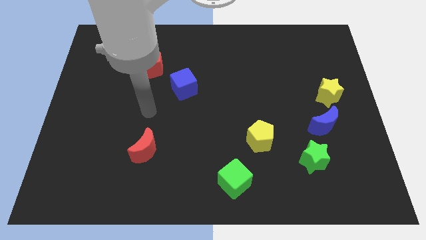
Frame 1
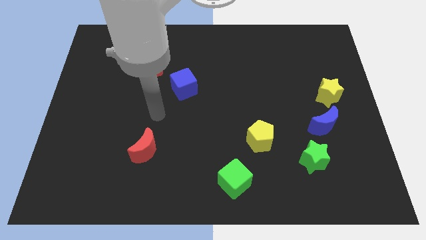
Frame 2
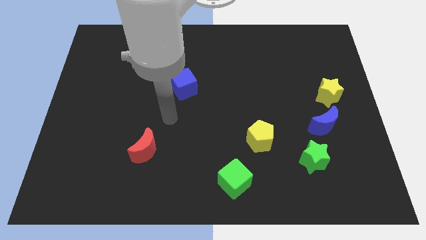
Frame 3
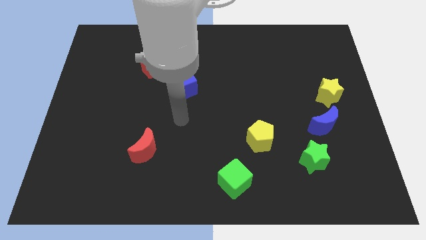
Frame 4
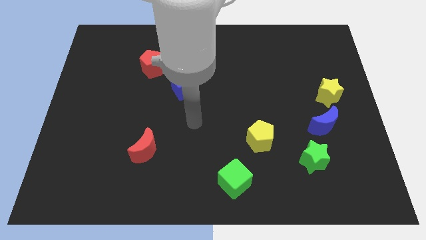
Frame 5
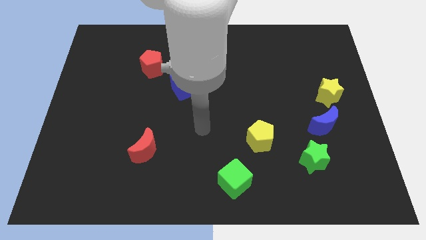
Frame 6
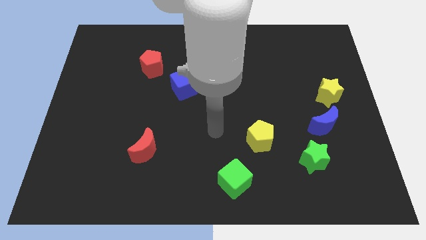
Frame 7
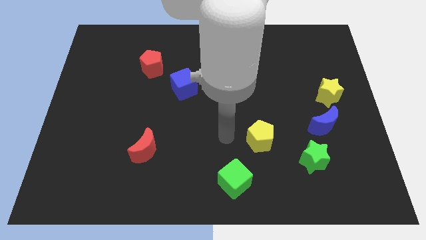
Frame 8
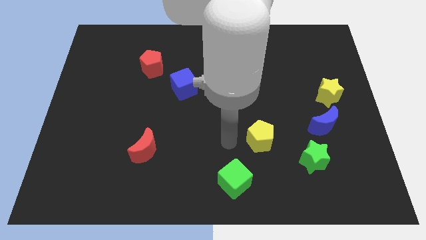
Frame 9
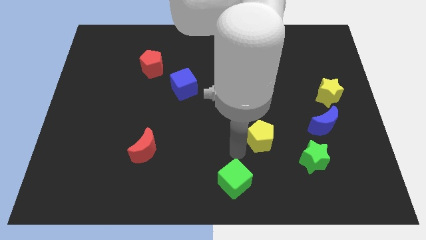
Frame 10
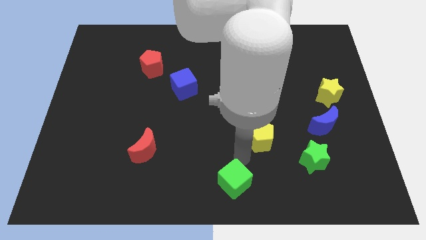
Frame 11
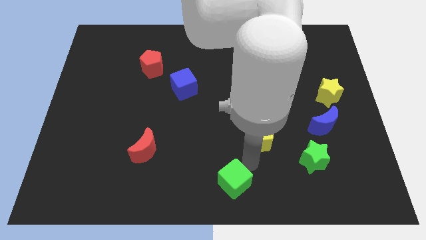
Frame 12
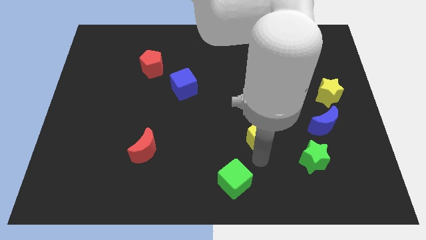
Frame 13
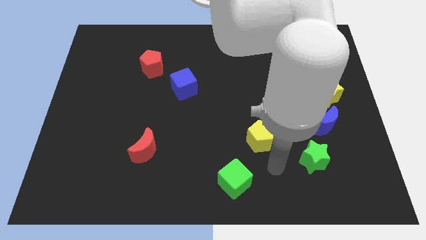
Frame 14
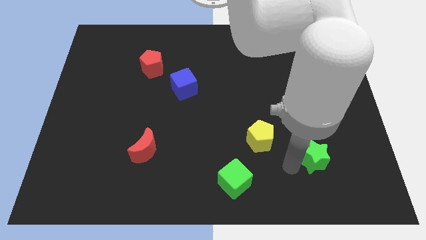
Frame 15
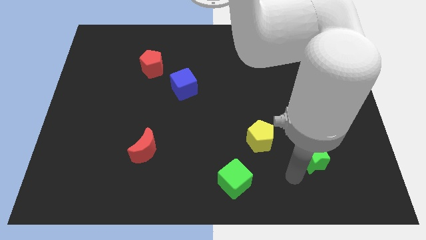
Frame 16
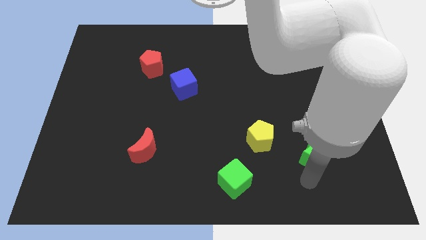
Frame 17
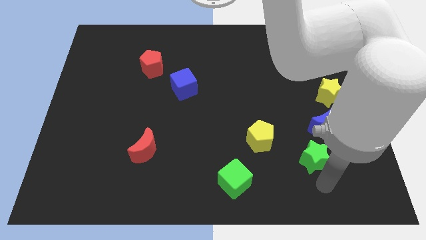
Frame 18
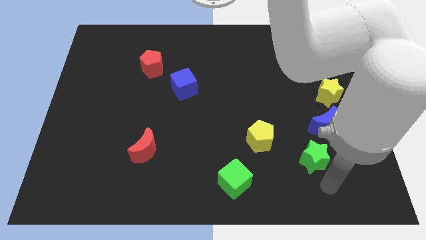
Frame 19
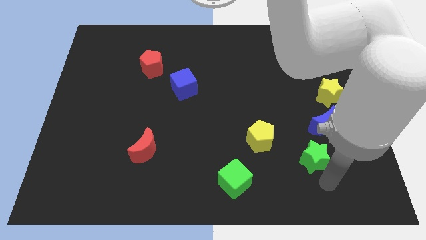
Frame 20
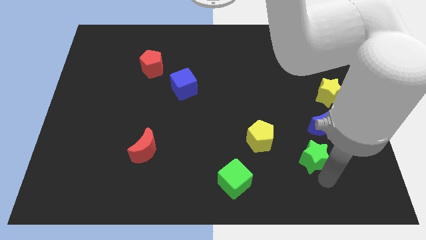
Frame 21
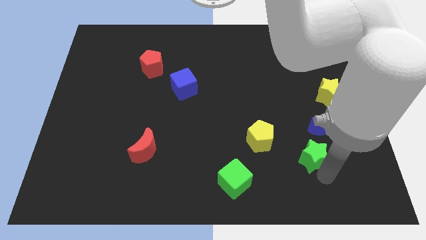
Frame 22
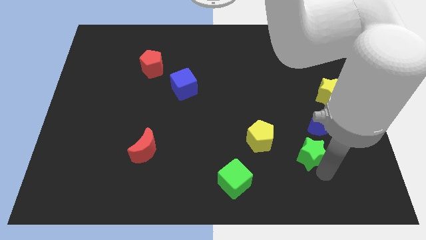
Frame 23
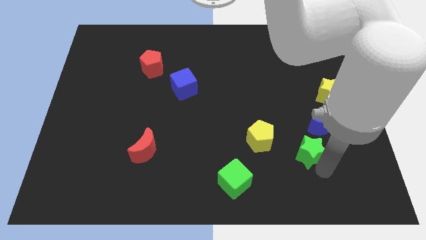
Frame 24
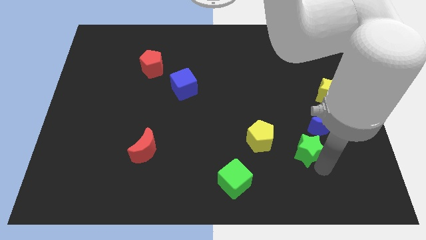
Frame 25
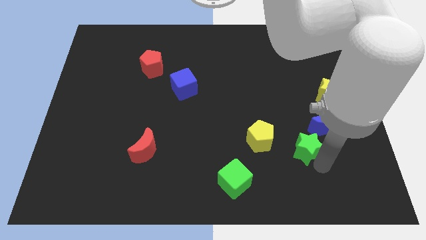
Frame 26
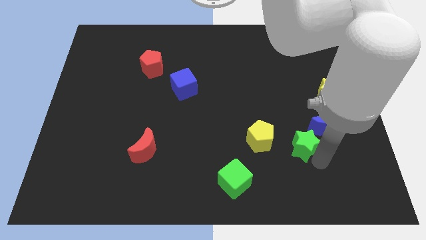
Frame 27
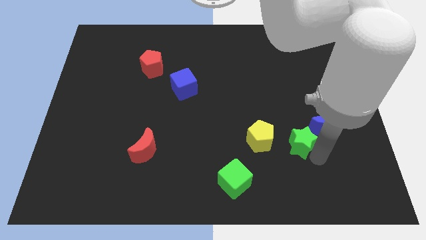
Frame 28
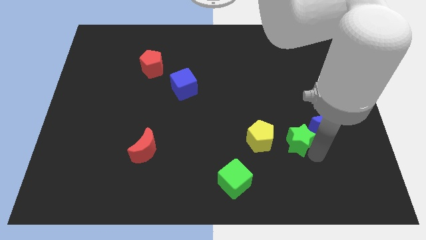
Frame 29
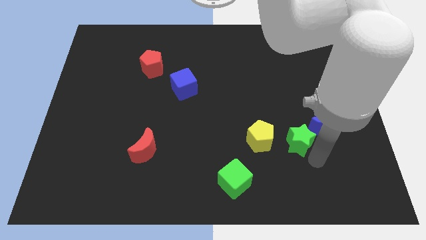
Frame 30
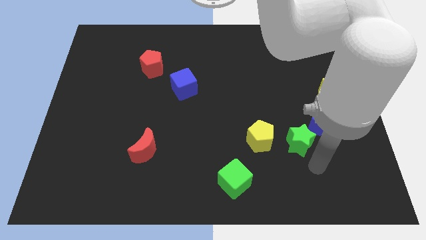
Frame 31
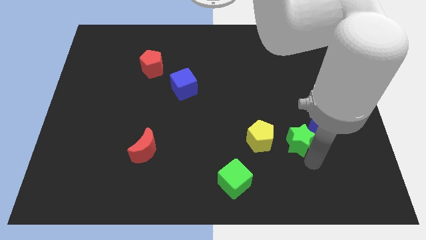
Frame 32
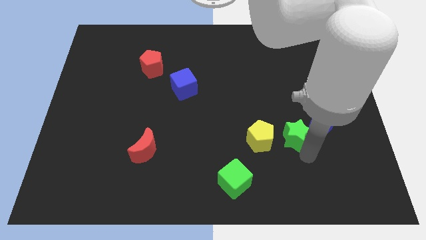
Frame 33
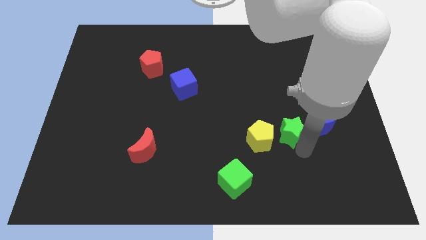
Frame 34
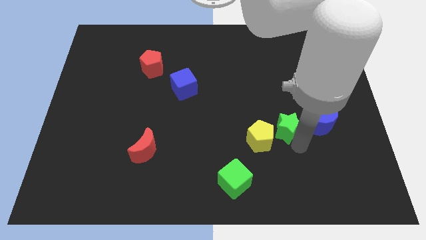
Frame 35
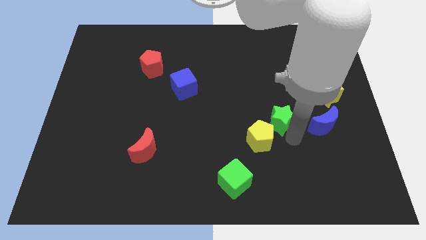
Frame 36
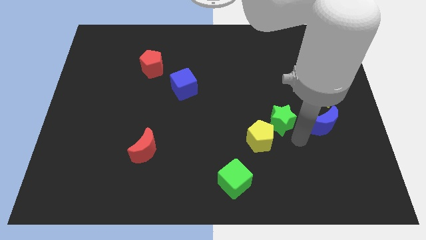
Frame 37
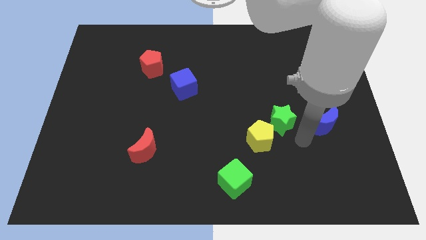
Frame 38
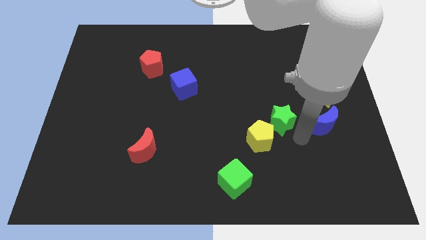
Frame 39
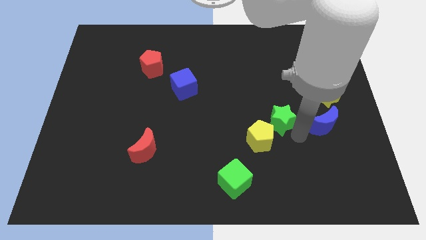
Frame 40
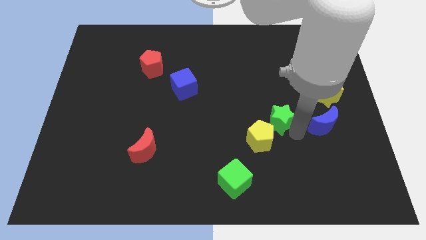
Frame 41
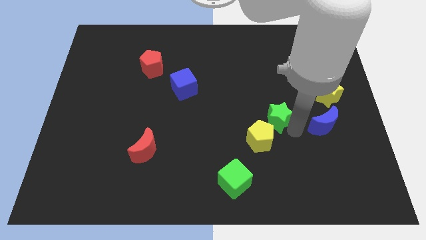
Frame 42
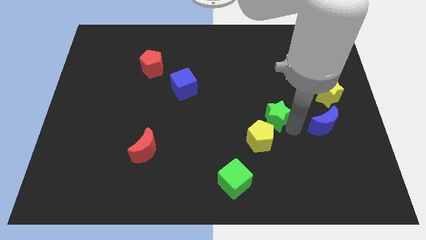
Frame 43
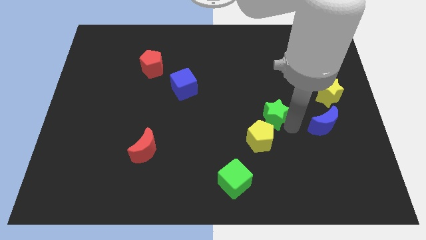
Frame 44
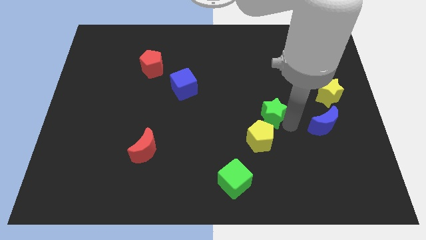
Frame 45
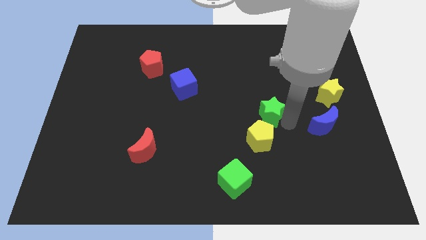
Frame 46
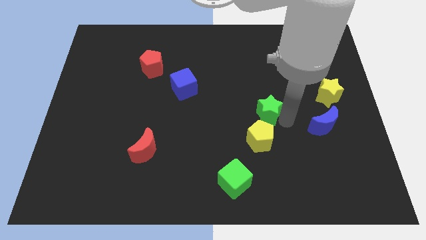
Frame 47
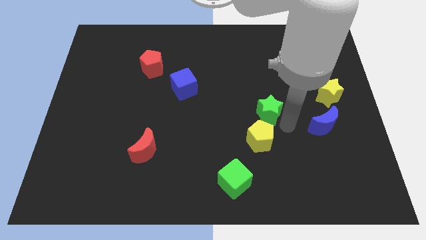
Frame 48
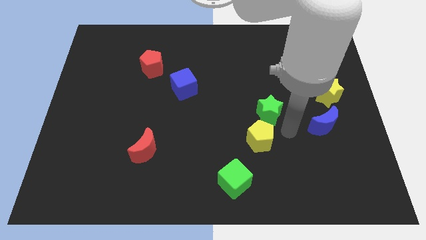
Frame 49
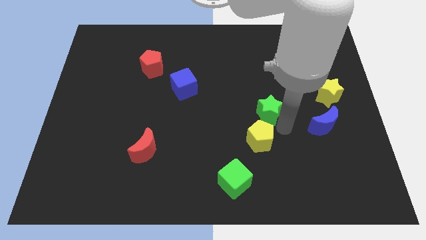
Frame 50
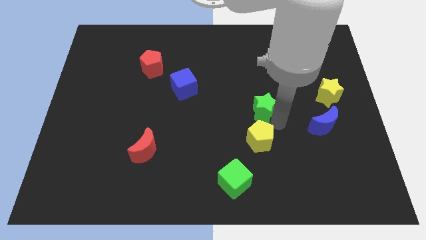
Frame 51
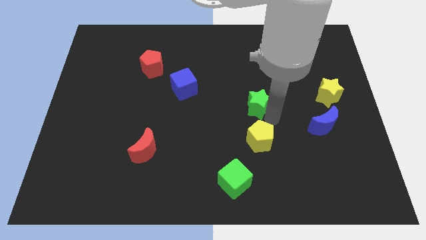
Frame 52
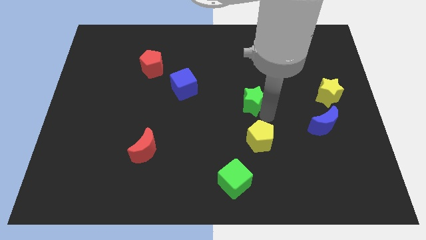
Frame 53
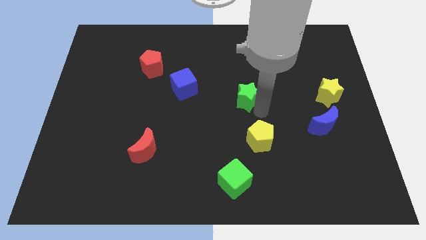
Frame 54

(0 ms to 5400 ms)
move the green star up and left diagonally

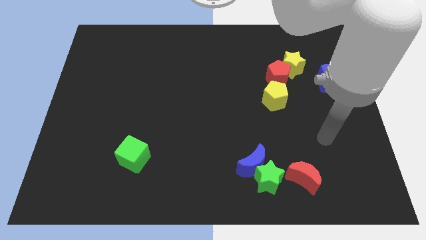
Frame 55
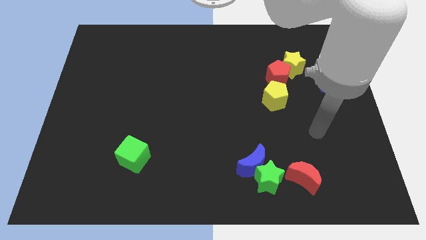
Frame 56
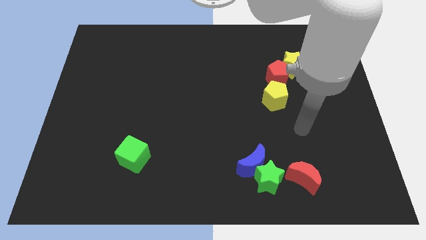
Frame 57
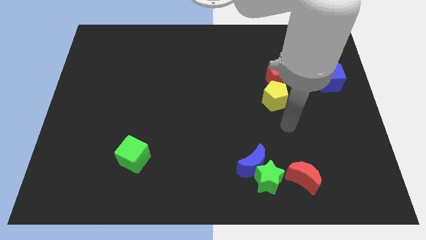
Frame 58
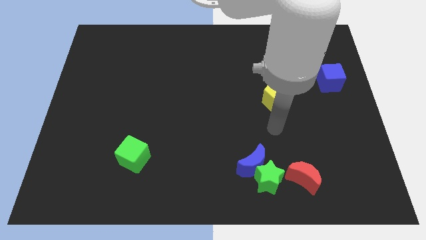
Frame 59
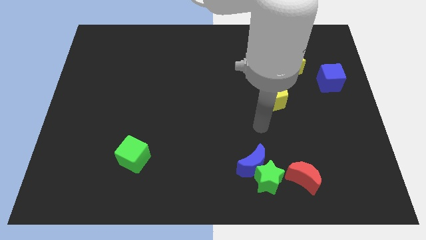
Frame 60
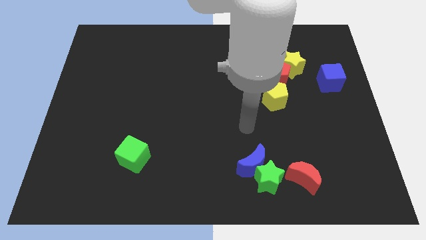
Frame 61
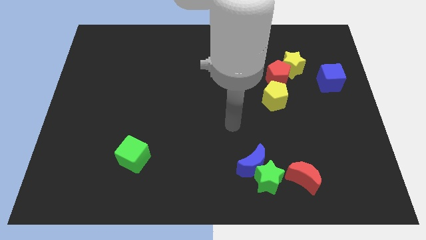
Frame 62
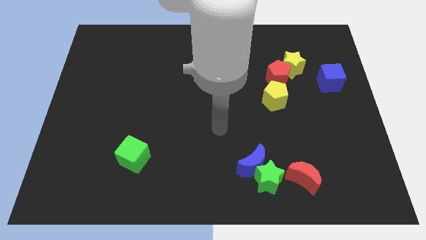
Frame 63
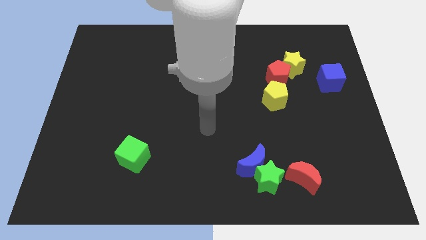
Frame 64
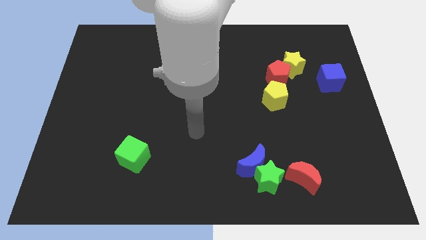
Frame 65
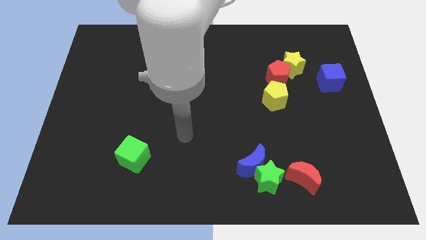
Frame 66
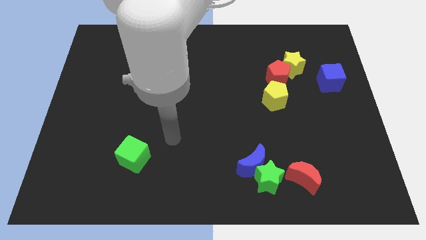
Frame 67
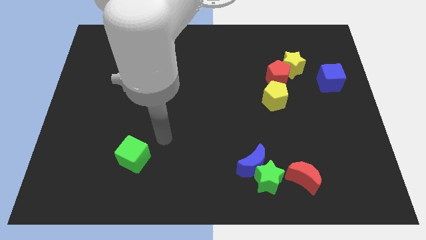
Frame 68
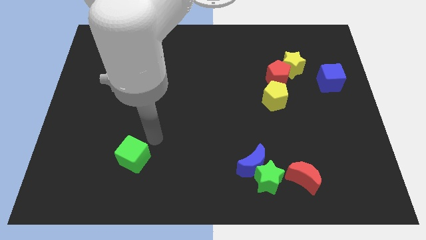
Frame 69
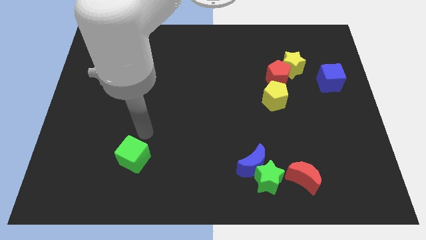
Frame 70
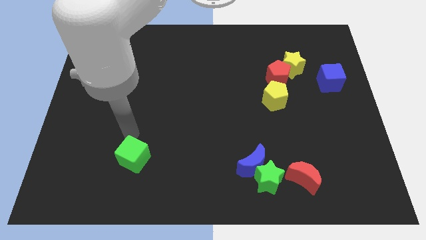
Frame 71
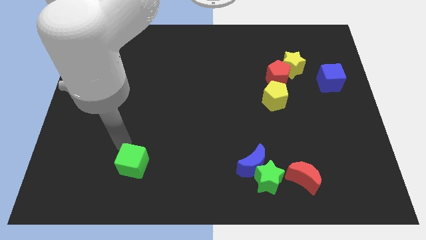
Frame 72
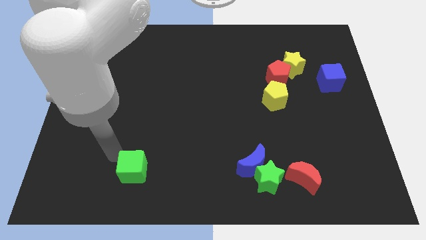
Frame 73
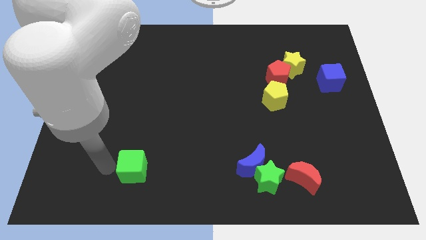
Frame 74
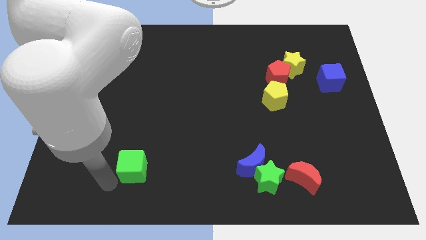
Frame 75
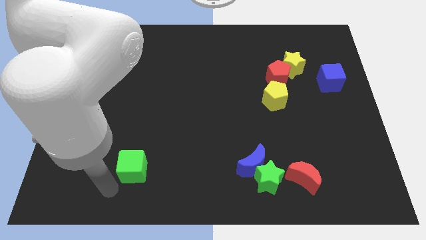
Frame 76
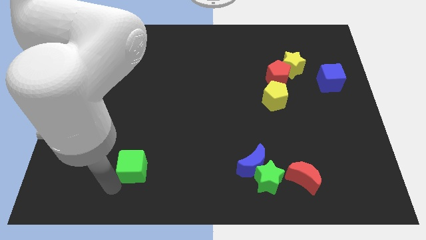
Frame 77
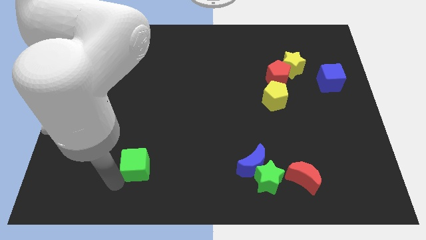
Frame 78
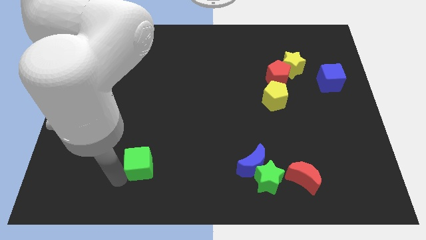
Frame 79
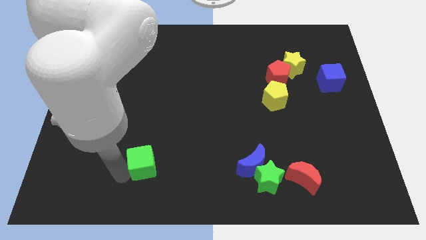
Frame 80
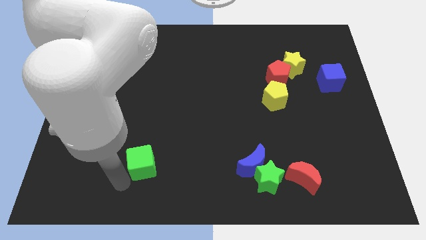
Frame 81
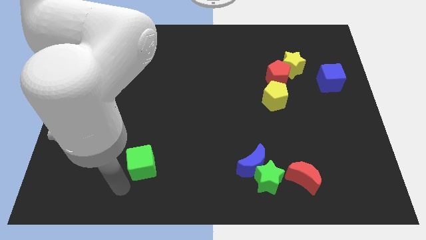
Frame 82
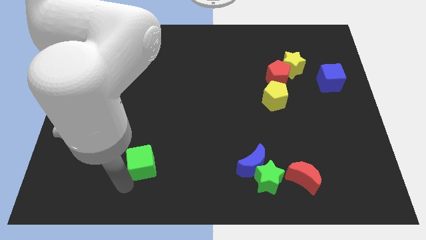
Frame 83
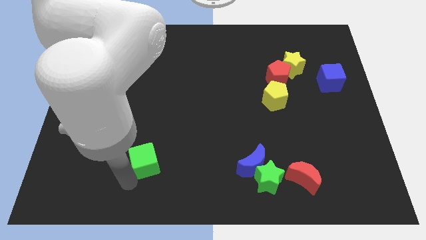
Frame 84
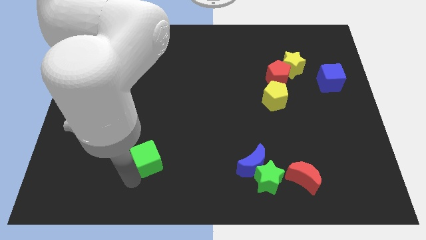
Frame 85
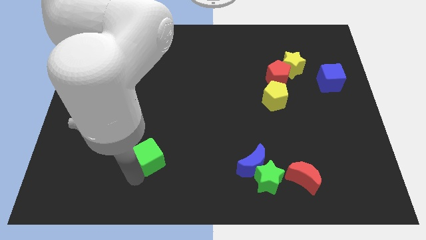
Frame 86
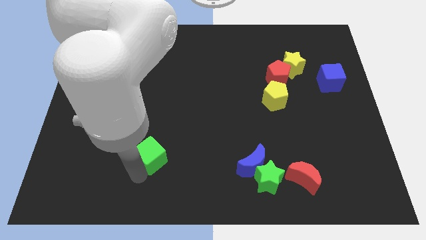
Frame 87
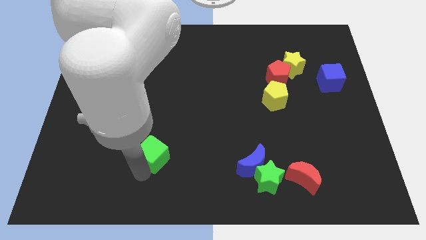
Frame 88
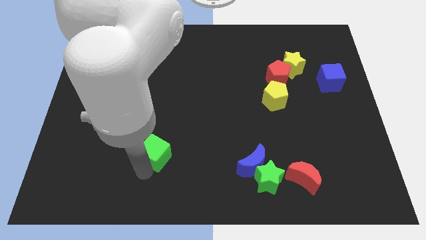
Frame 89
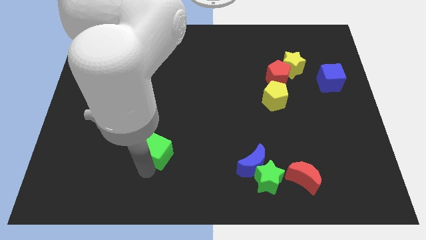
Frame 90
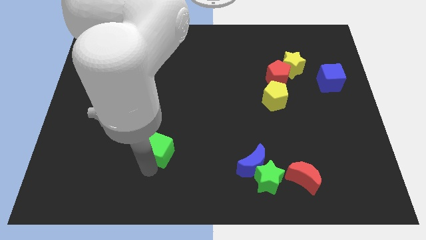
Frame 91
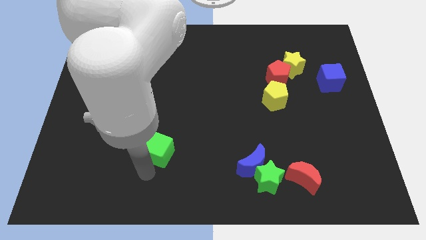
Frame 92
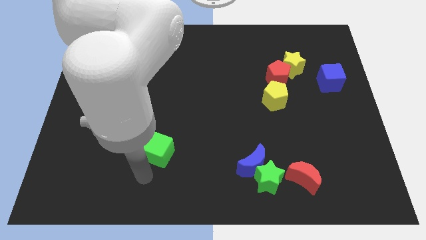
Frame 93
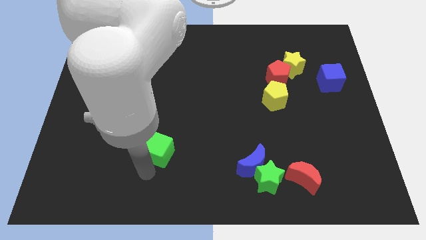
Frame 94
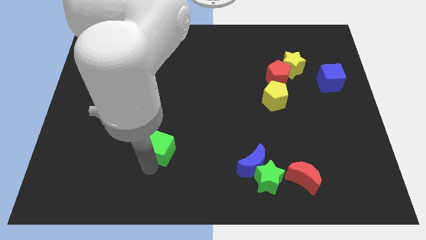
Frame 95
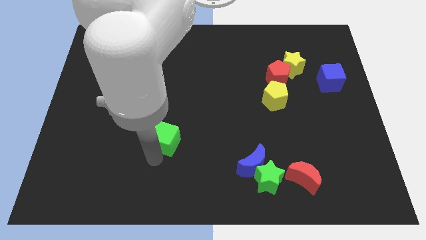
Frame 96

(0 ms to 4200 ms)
slightly slide the green cube upwards and to the right diagonally
